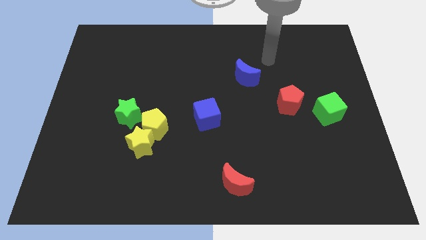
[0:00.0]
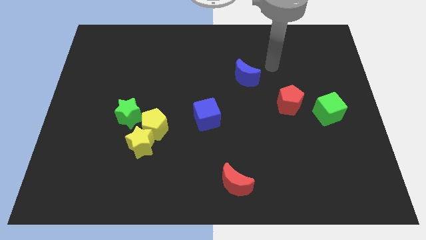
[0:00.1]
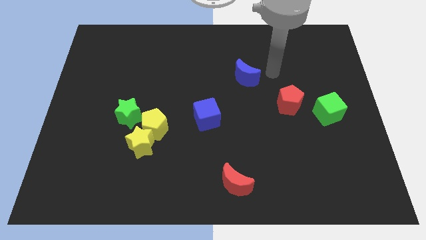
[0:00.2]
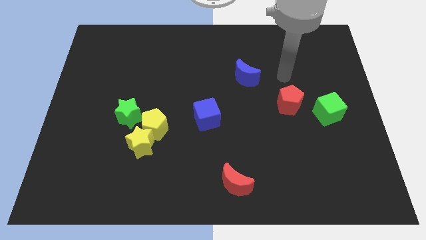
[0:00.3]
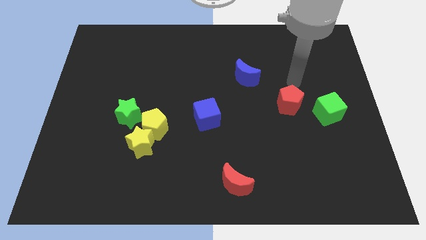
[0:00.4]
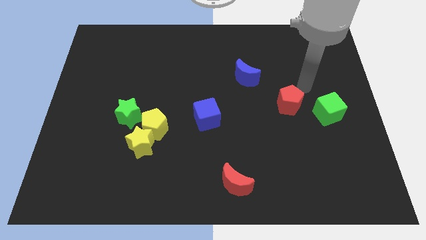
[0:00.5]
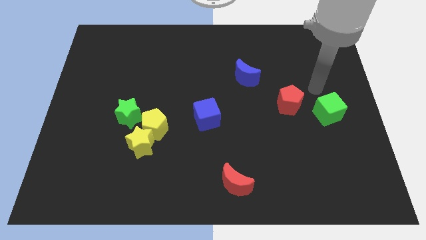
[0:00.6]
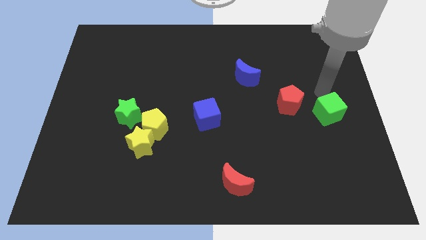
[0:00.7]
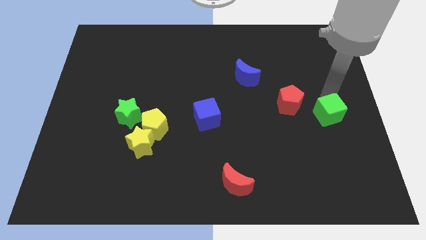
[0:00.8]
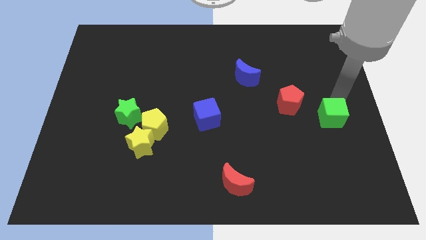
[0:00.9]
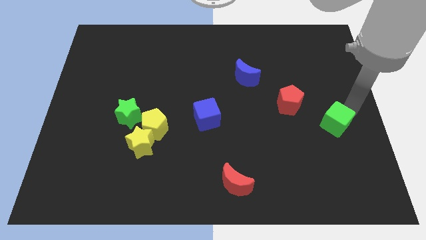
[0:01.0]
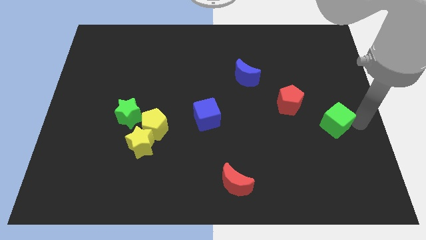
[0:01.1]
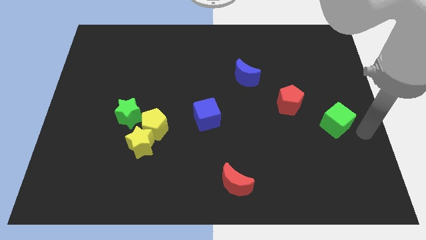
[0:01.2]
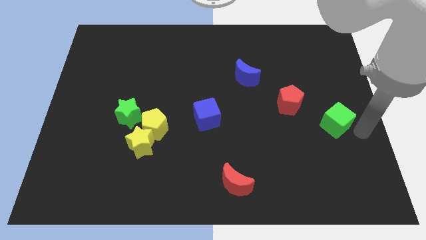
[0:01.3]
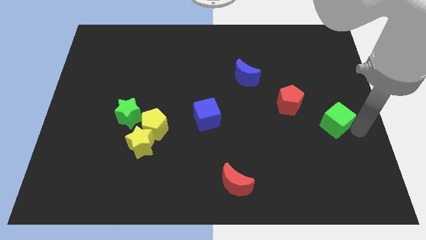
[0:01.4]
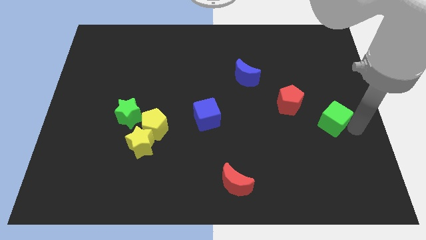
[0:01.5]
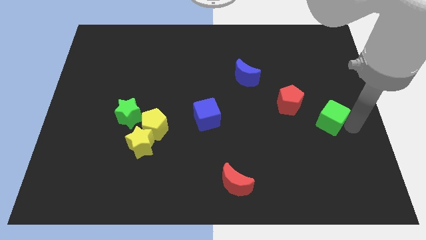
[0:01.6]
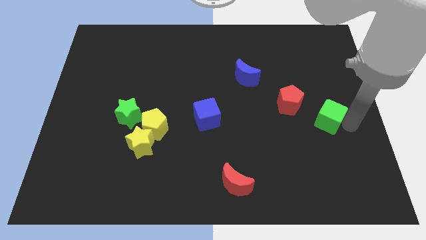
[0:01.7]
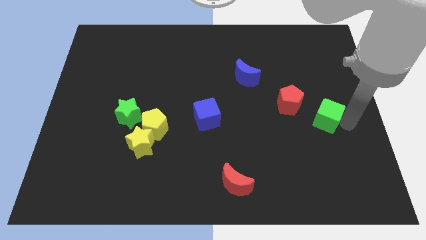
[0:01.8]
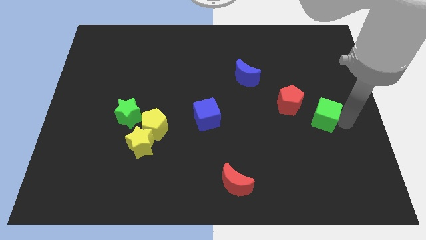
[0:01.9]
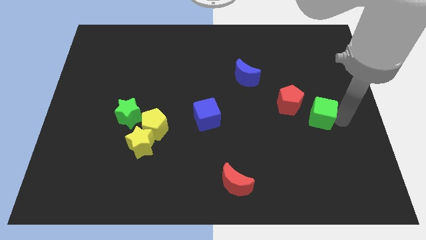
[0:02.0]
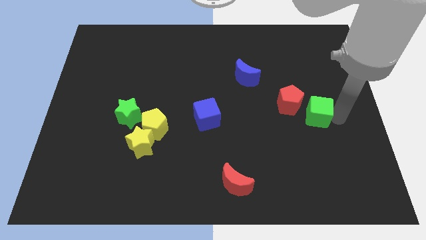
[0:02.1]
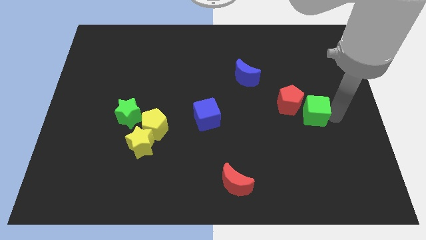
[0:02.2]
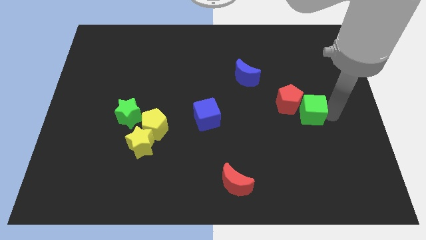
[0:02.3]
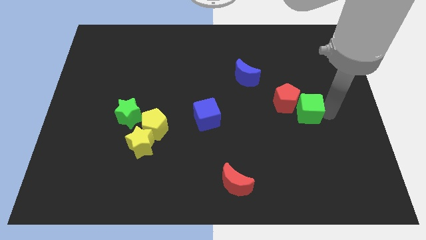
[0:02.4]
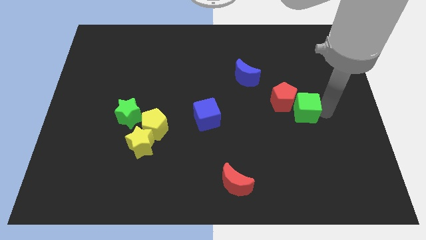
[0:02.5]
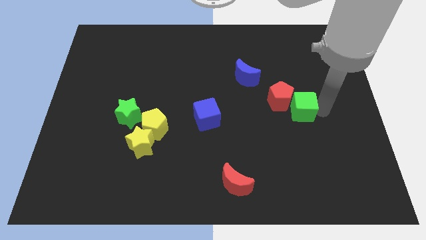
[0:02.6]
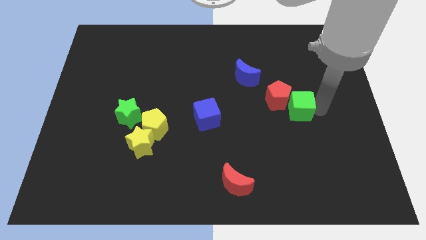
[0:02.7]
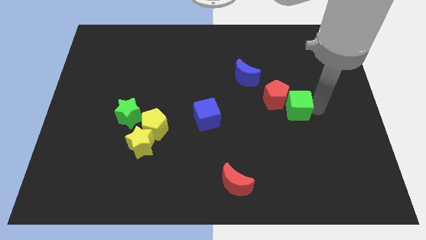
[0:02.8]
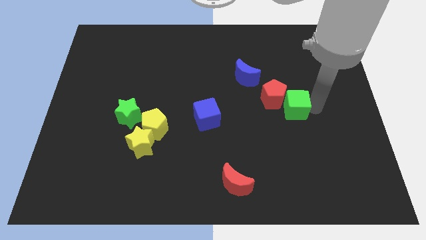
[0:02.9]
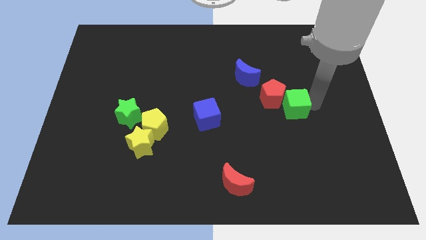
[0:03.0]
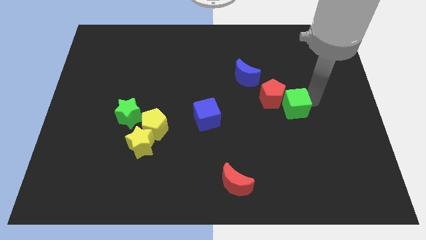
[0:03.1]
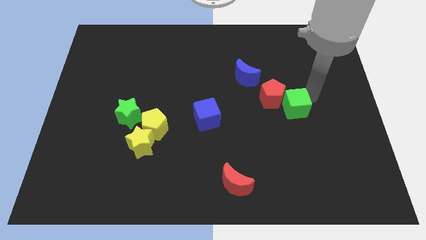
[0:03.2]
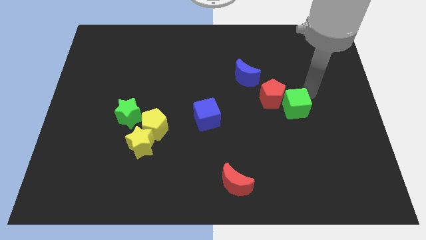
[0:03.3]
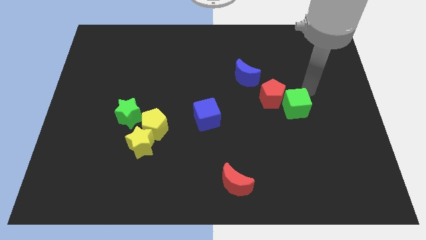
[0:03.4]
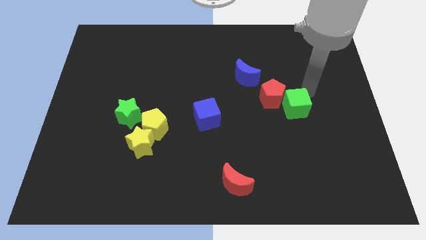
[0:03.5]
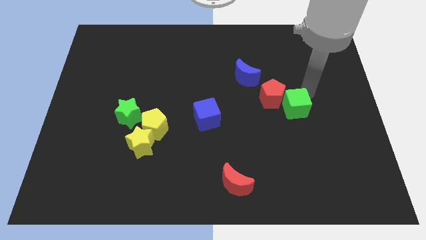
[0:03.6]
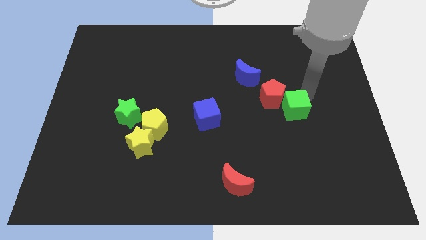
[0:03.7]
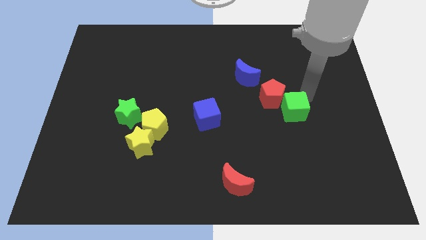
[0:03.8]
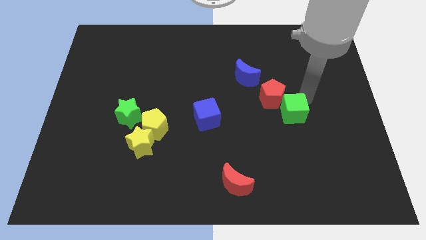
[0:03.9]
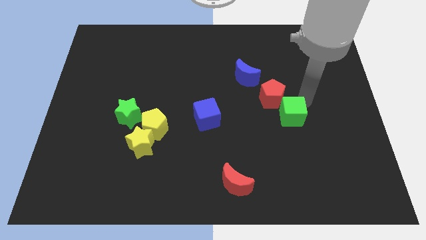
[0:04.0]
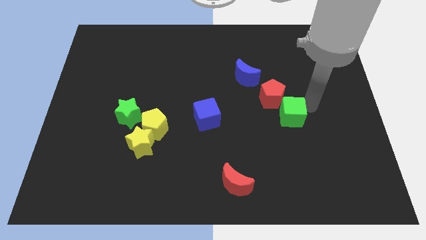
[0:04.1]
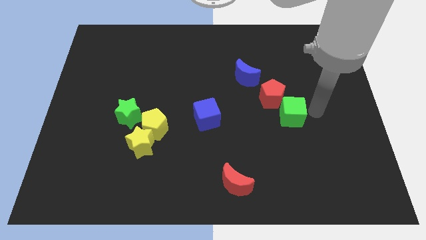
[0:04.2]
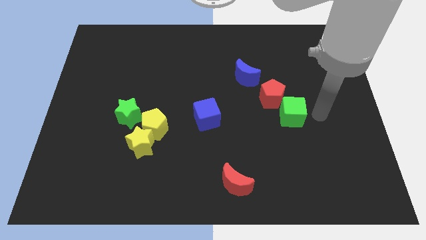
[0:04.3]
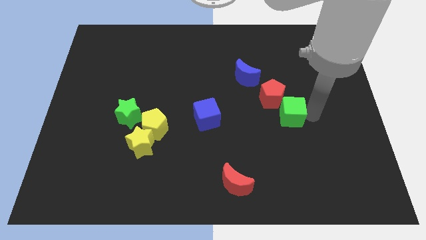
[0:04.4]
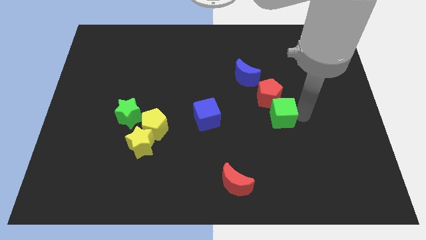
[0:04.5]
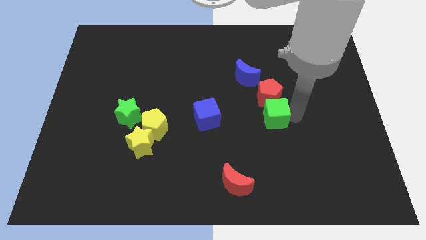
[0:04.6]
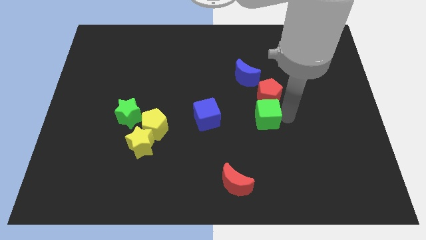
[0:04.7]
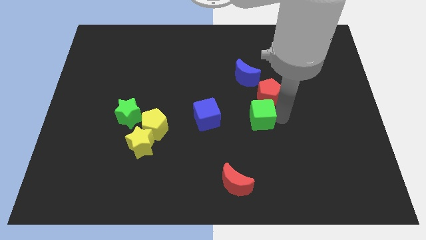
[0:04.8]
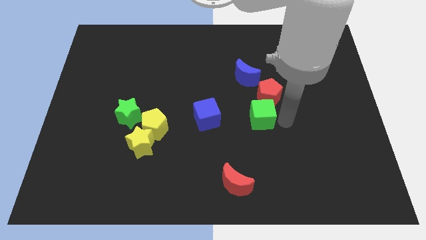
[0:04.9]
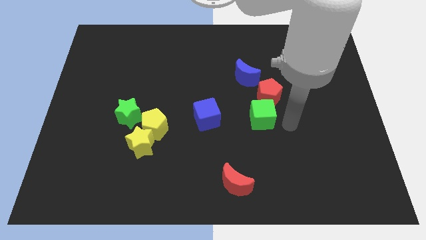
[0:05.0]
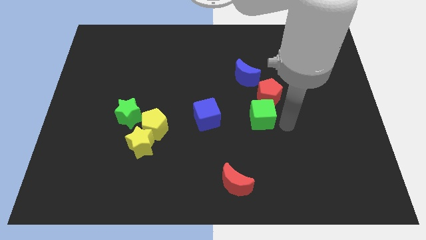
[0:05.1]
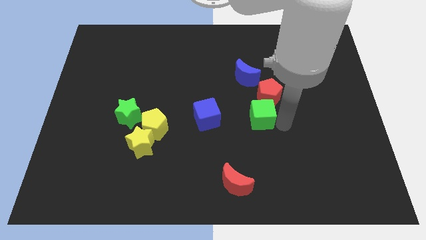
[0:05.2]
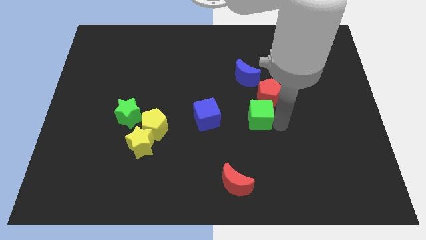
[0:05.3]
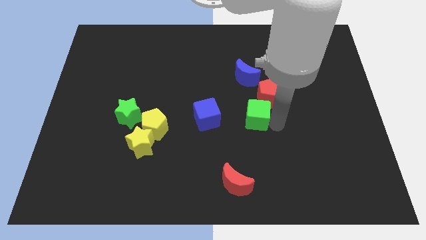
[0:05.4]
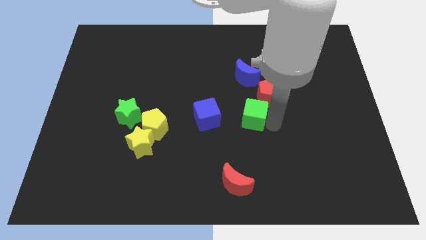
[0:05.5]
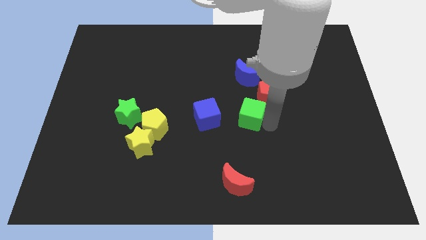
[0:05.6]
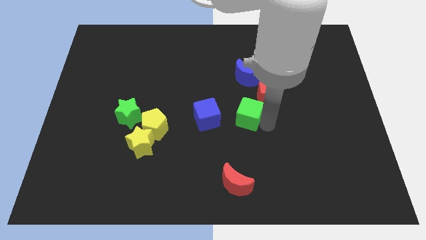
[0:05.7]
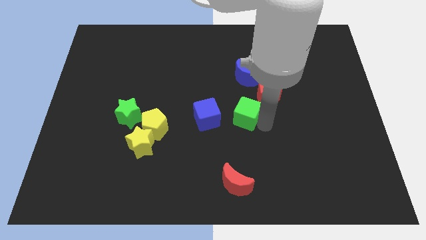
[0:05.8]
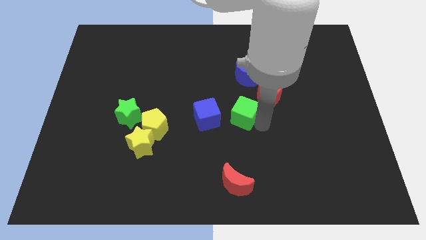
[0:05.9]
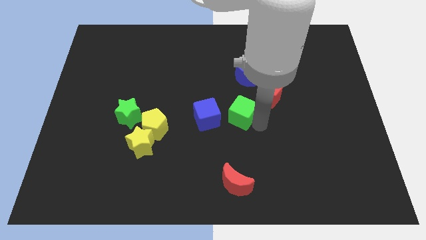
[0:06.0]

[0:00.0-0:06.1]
slide the green cube left

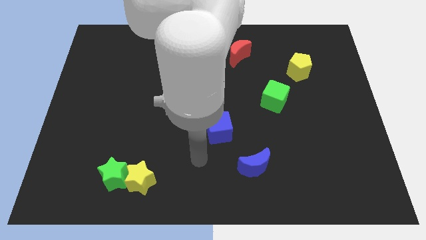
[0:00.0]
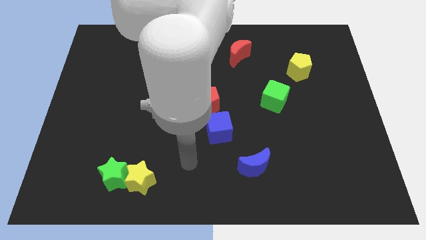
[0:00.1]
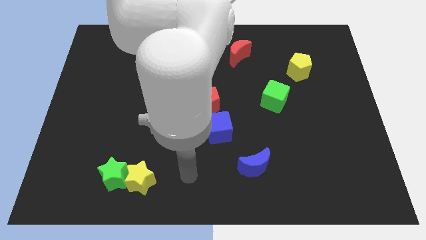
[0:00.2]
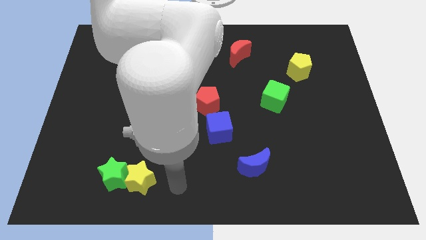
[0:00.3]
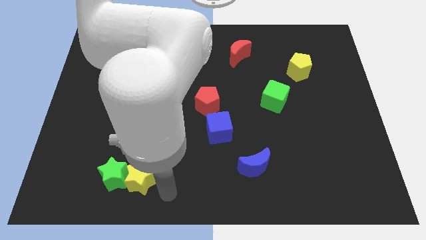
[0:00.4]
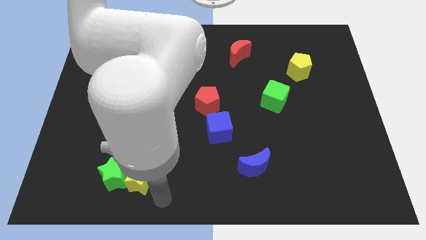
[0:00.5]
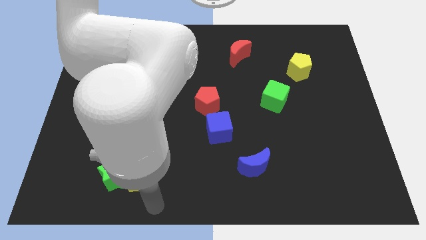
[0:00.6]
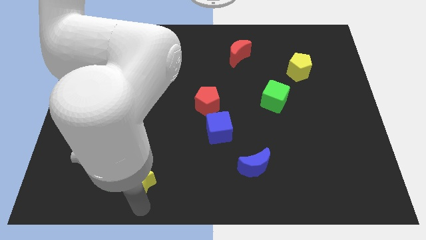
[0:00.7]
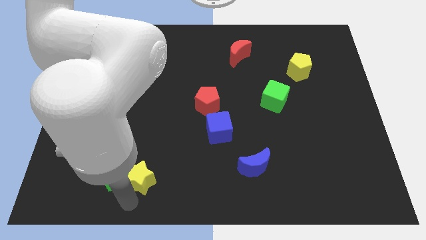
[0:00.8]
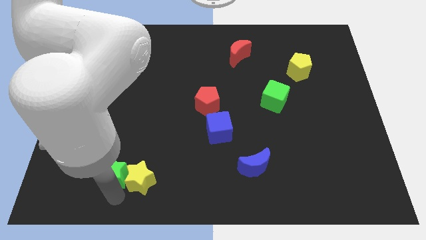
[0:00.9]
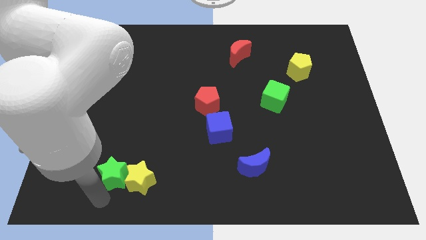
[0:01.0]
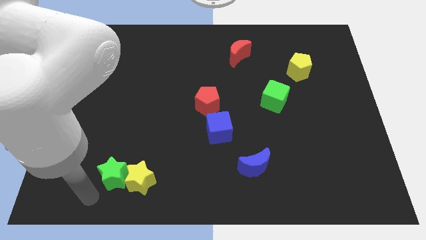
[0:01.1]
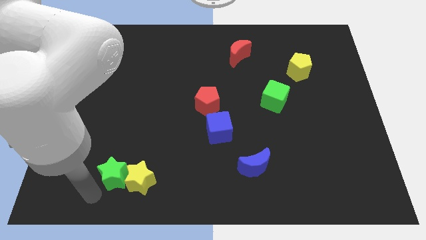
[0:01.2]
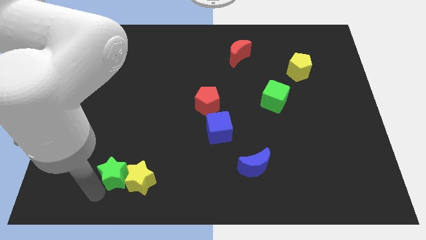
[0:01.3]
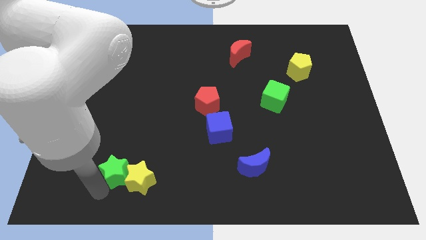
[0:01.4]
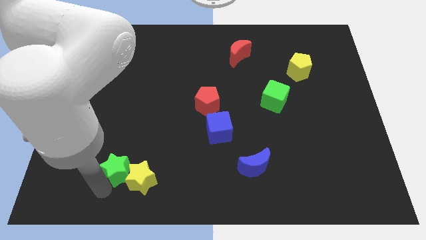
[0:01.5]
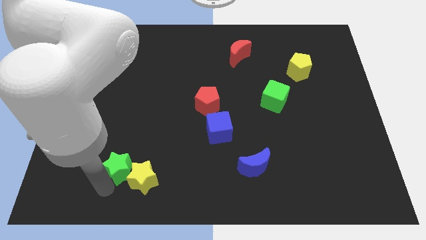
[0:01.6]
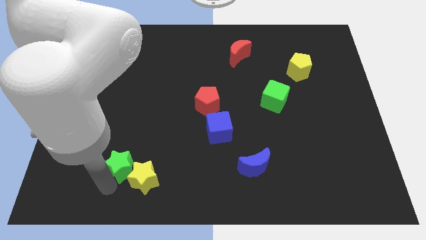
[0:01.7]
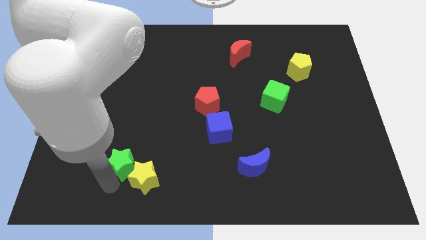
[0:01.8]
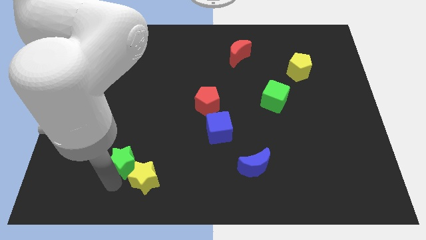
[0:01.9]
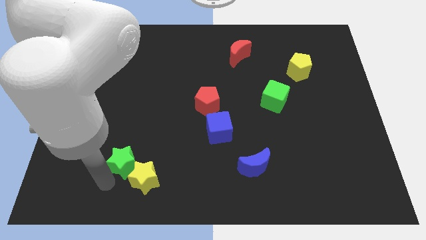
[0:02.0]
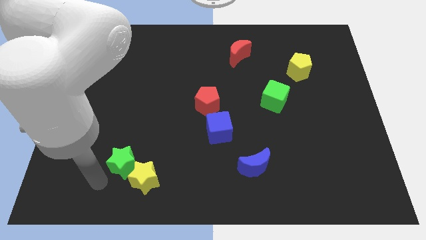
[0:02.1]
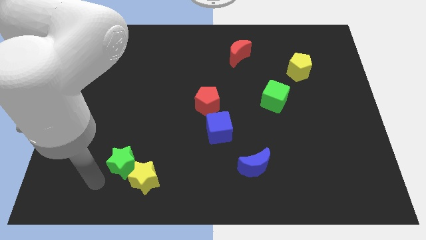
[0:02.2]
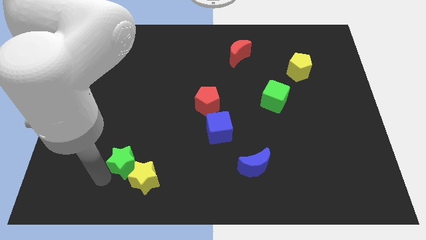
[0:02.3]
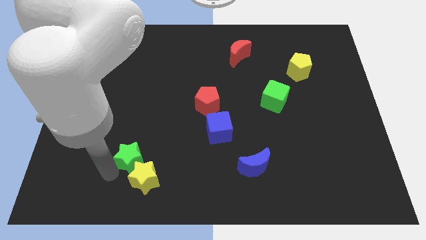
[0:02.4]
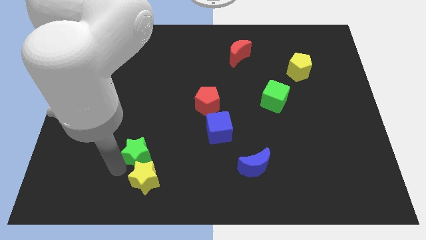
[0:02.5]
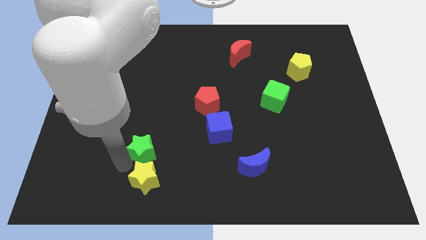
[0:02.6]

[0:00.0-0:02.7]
move the green star slightly diagonally upwards and right
